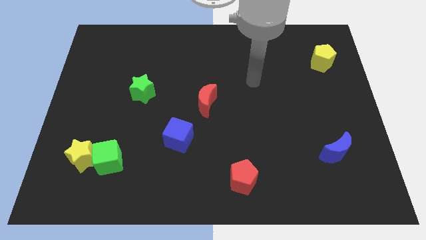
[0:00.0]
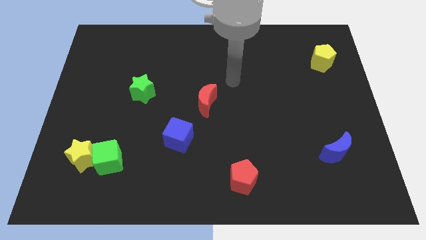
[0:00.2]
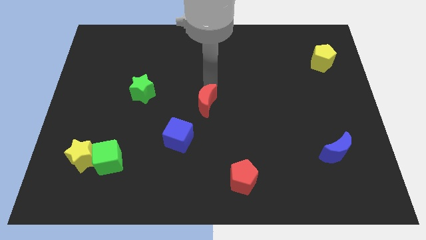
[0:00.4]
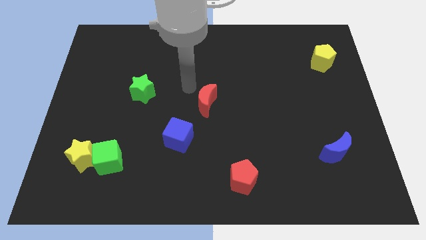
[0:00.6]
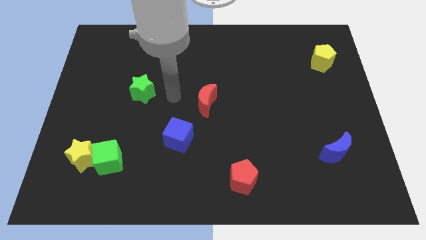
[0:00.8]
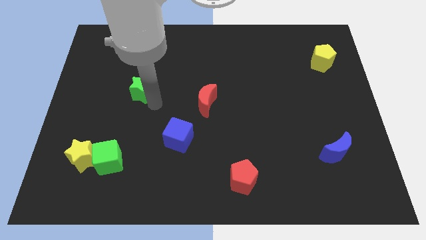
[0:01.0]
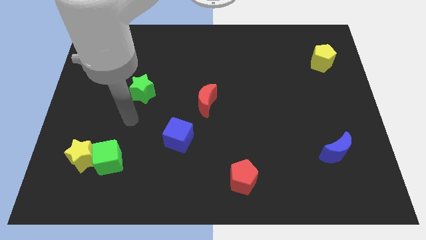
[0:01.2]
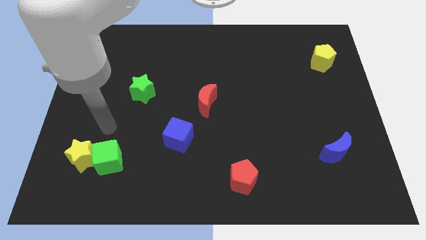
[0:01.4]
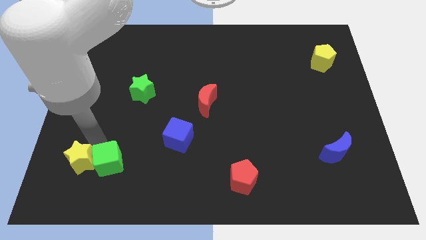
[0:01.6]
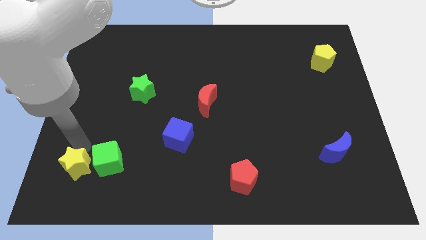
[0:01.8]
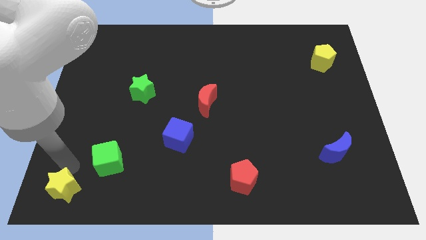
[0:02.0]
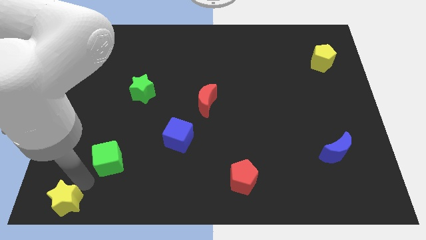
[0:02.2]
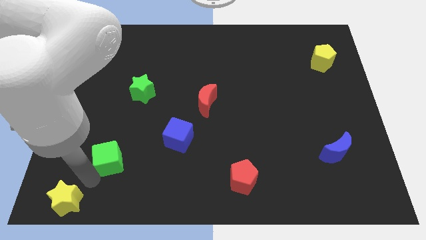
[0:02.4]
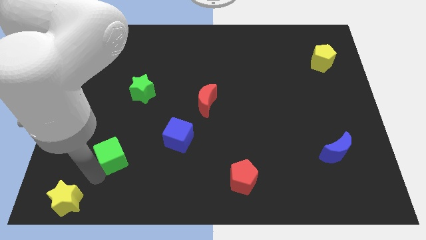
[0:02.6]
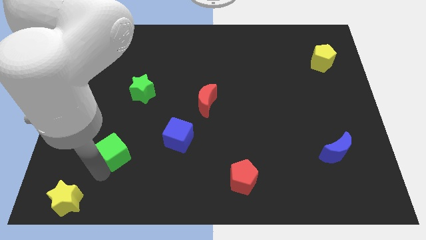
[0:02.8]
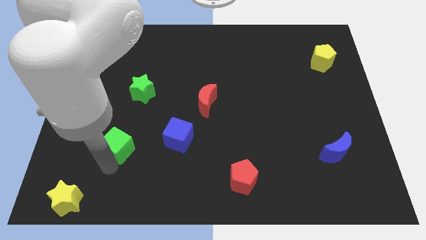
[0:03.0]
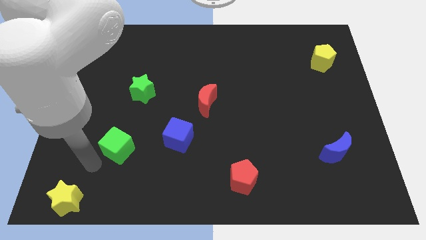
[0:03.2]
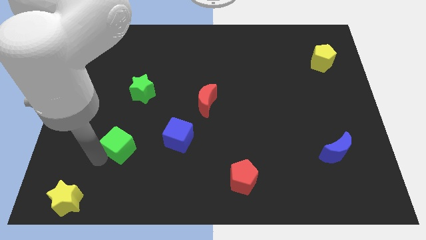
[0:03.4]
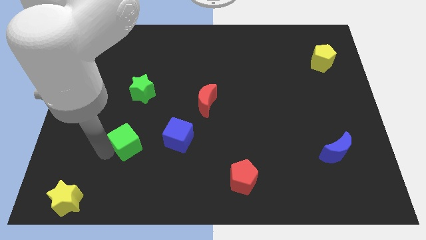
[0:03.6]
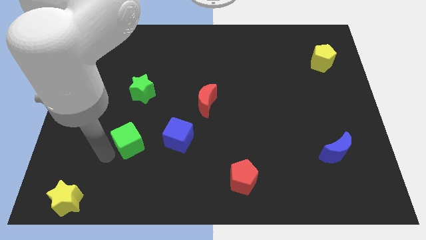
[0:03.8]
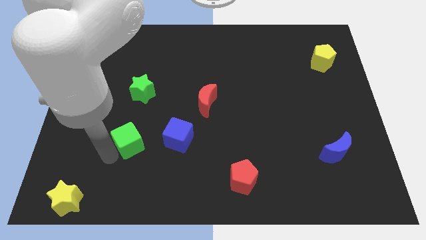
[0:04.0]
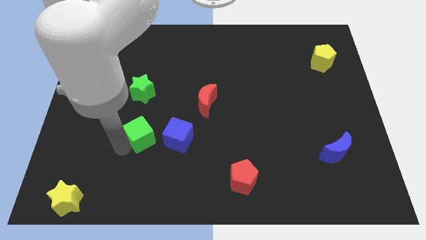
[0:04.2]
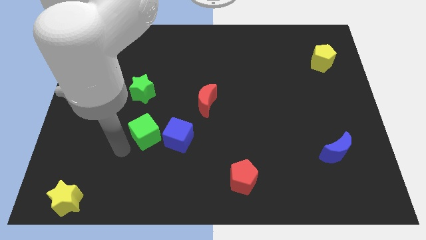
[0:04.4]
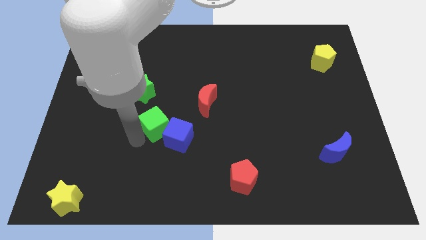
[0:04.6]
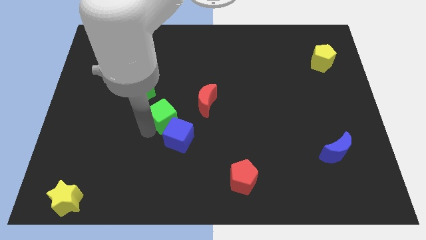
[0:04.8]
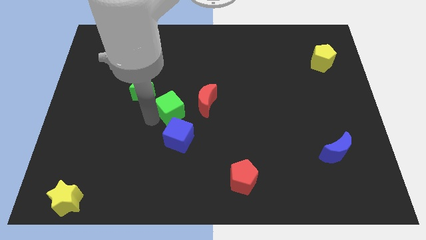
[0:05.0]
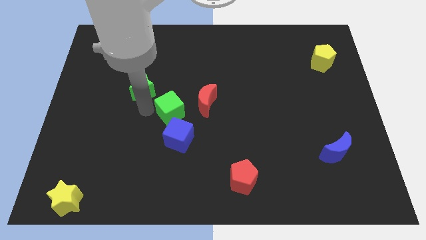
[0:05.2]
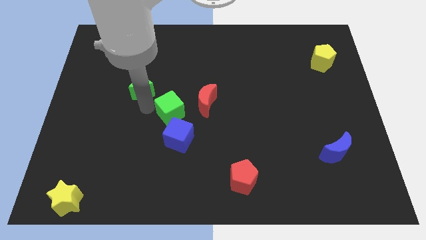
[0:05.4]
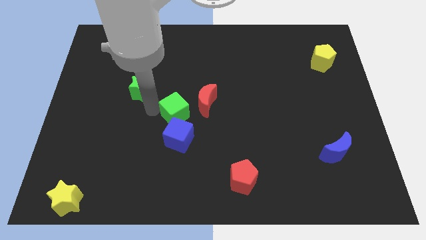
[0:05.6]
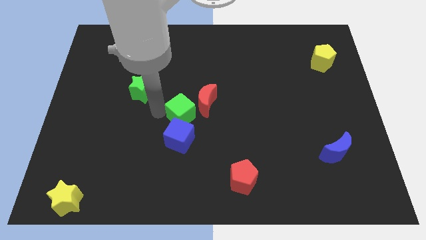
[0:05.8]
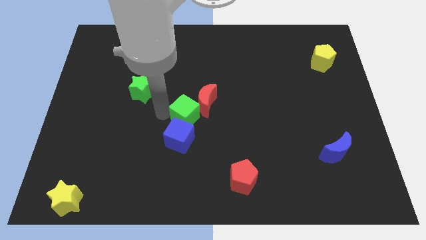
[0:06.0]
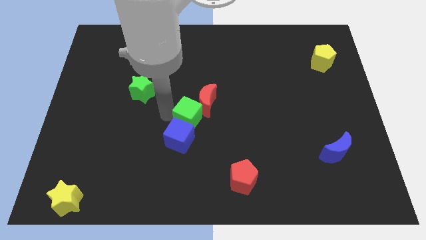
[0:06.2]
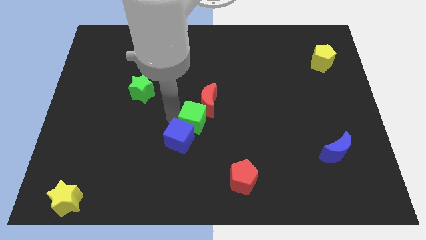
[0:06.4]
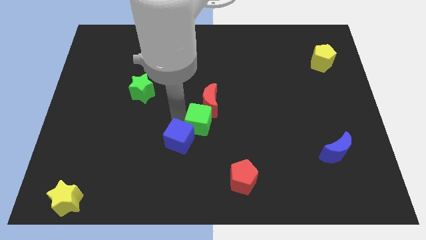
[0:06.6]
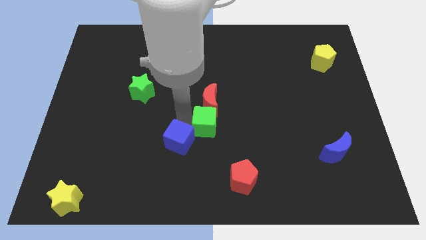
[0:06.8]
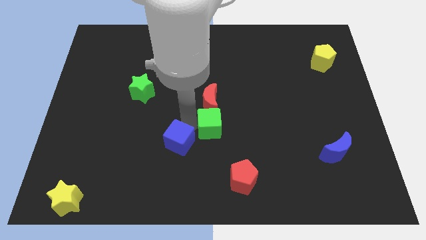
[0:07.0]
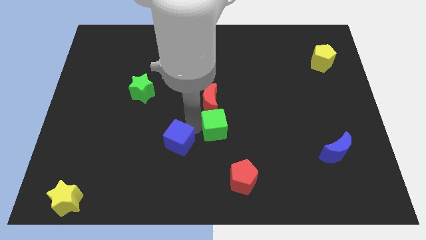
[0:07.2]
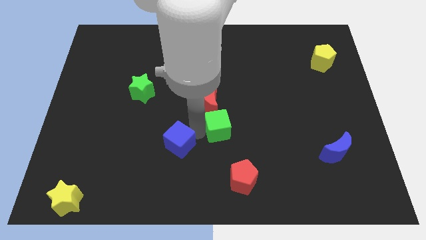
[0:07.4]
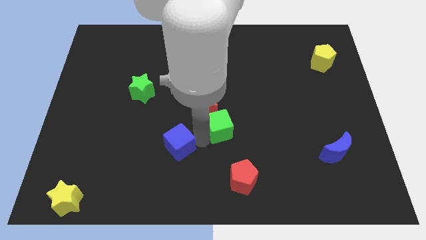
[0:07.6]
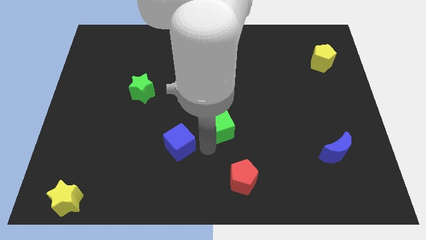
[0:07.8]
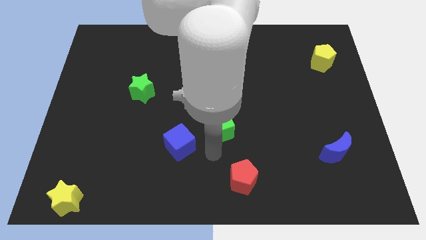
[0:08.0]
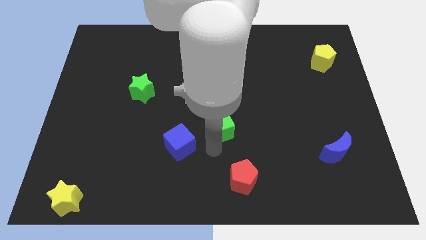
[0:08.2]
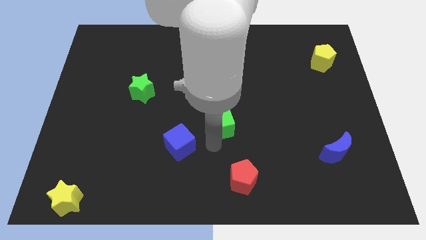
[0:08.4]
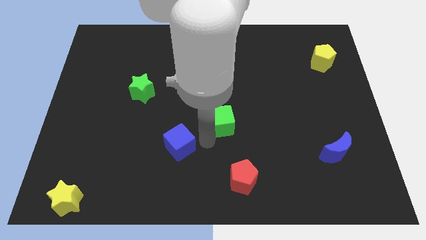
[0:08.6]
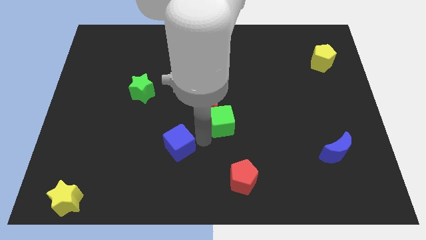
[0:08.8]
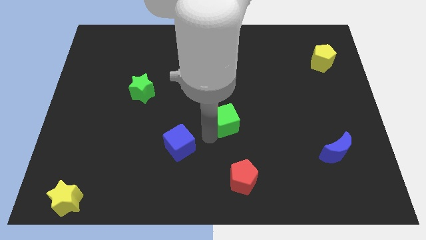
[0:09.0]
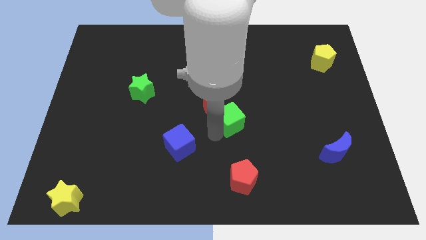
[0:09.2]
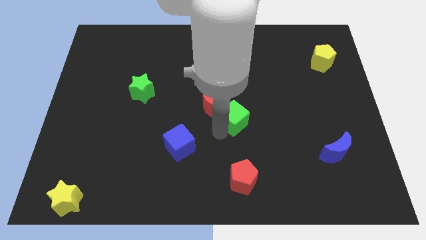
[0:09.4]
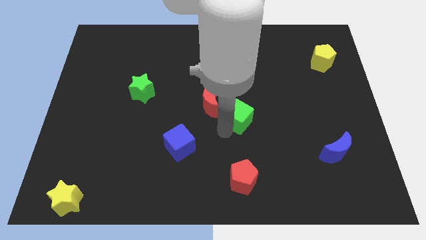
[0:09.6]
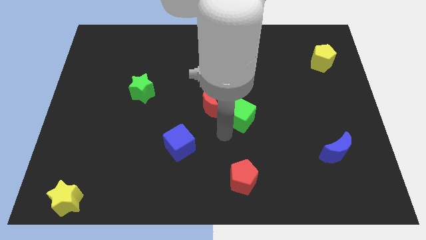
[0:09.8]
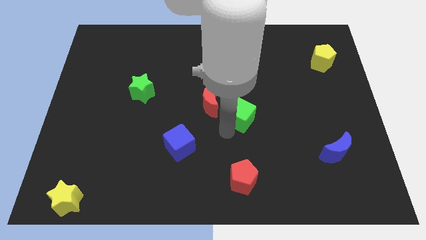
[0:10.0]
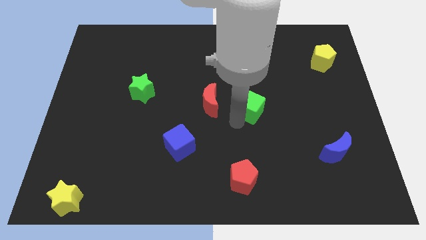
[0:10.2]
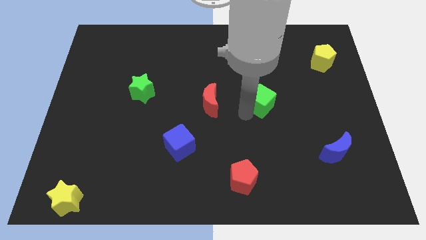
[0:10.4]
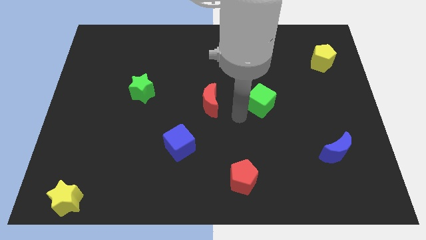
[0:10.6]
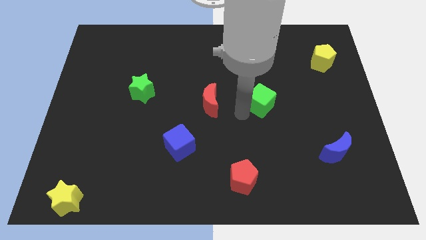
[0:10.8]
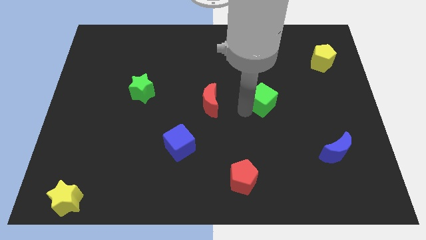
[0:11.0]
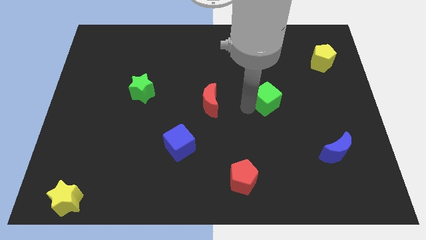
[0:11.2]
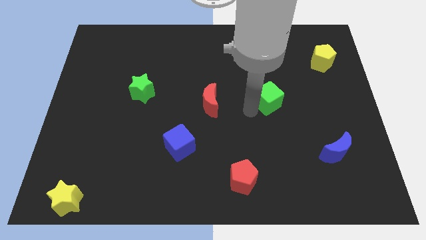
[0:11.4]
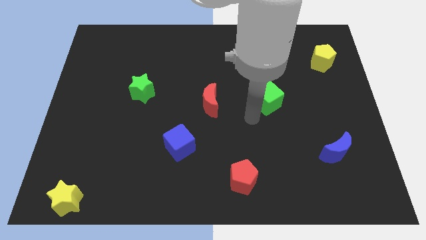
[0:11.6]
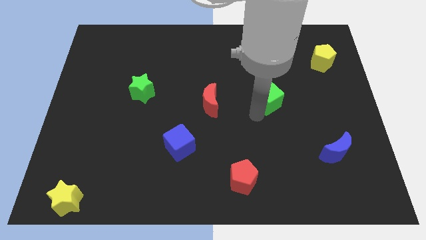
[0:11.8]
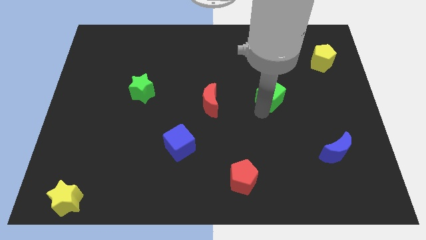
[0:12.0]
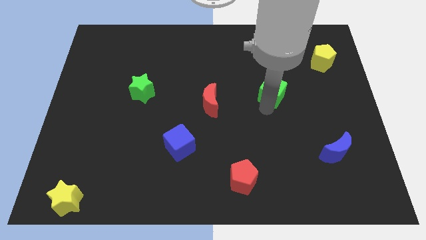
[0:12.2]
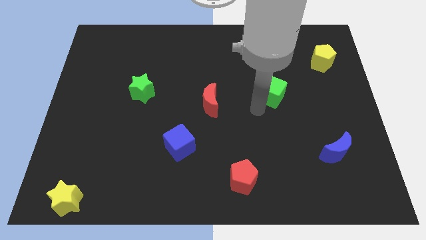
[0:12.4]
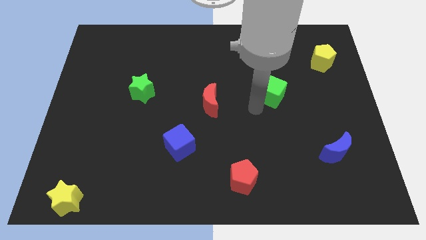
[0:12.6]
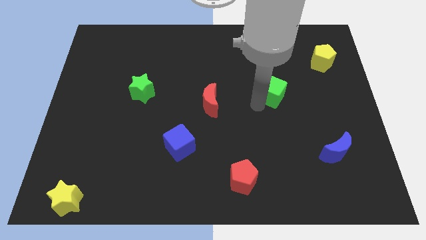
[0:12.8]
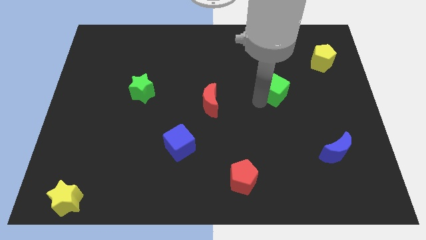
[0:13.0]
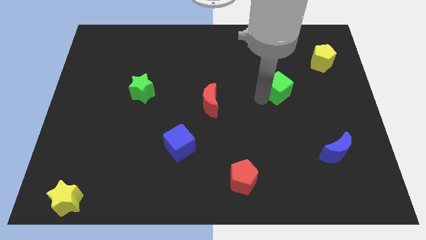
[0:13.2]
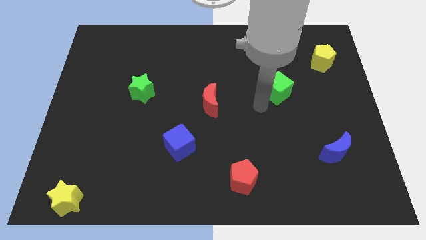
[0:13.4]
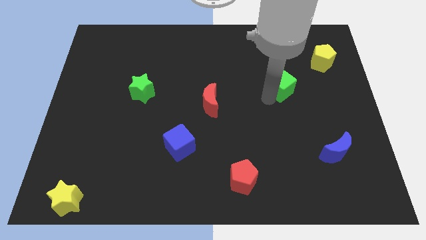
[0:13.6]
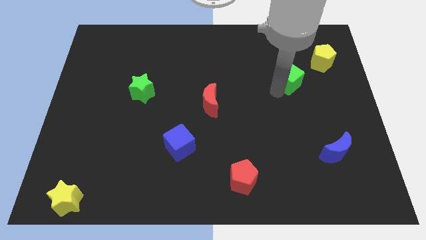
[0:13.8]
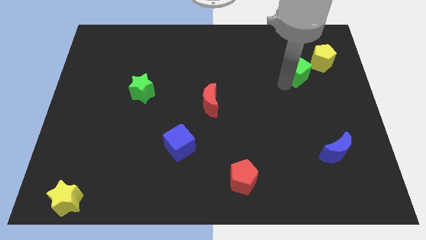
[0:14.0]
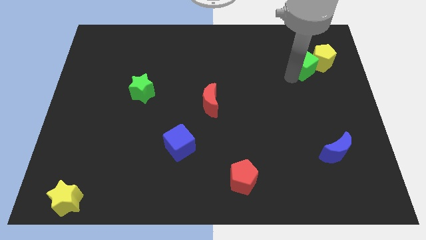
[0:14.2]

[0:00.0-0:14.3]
push the green cube to the yellow pentagon
